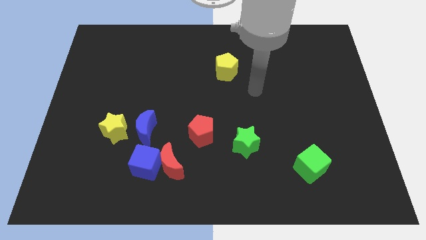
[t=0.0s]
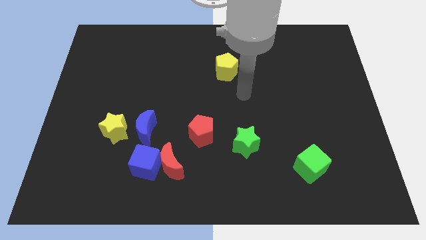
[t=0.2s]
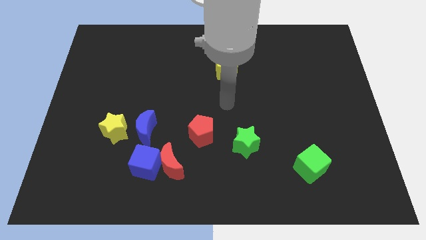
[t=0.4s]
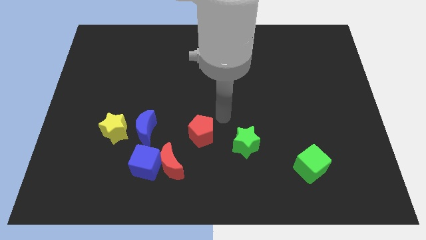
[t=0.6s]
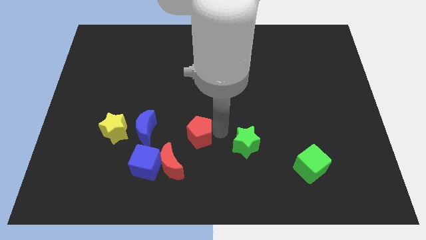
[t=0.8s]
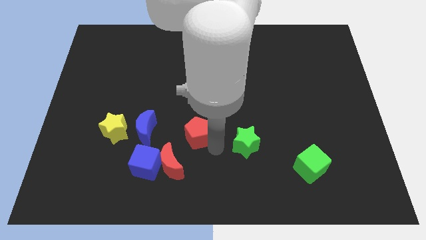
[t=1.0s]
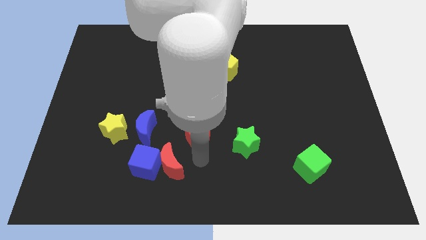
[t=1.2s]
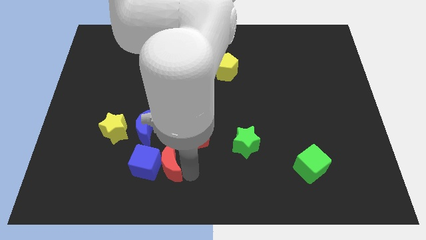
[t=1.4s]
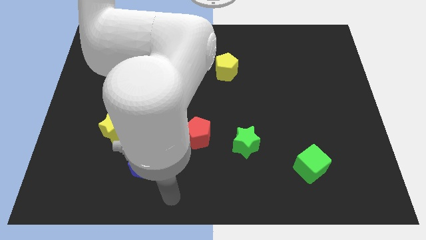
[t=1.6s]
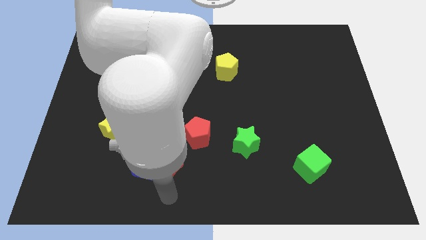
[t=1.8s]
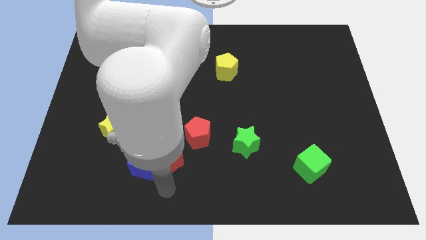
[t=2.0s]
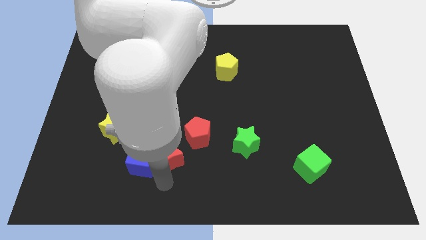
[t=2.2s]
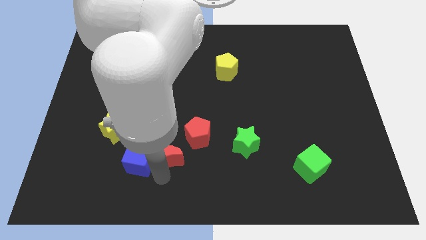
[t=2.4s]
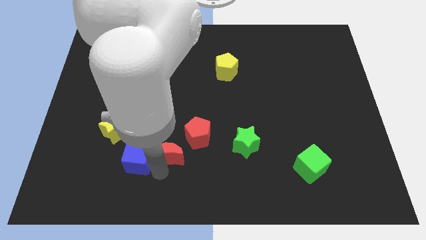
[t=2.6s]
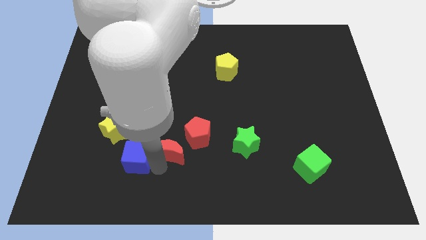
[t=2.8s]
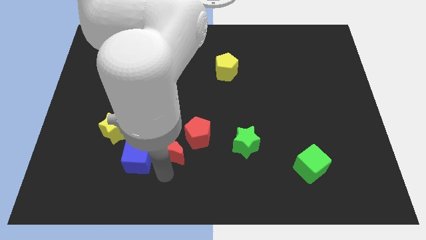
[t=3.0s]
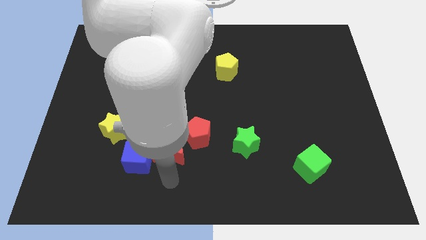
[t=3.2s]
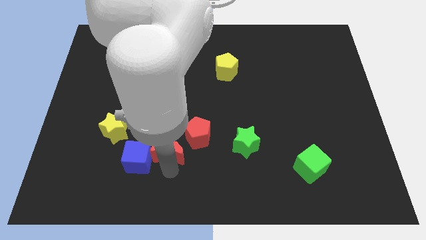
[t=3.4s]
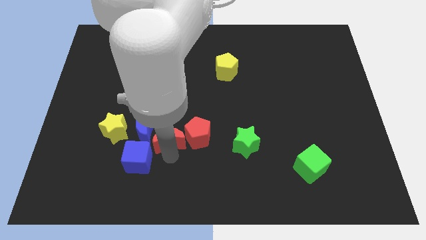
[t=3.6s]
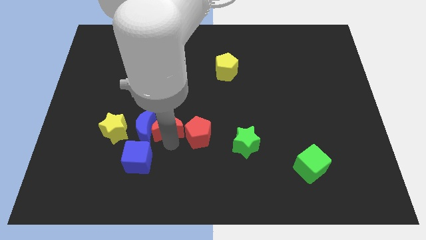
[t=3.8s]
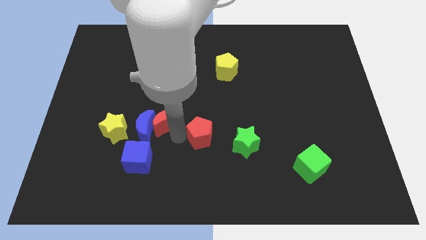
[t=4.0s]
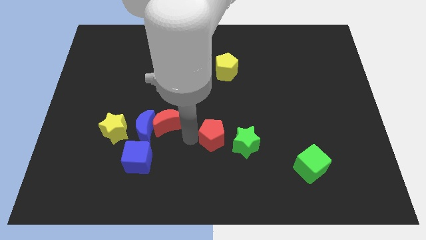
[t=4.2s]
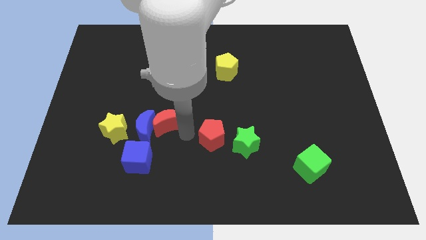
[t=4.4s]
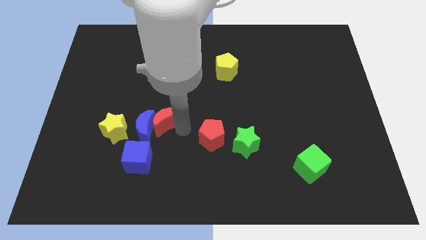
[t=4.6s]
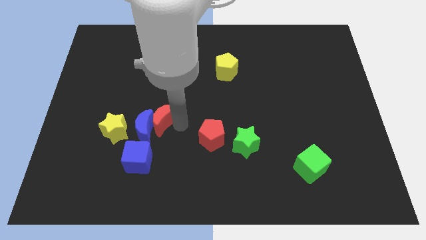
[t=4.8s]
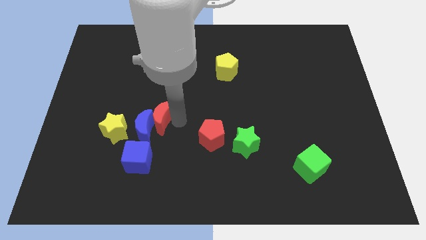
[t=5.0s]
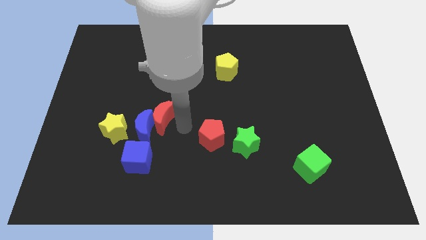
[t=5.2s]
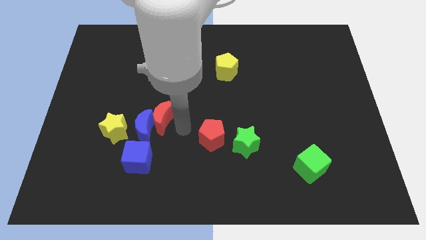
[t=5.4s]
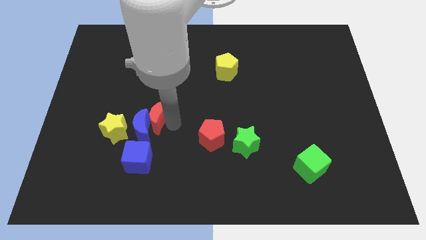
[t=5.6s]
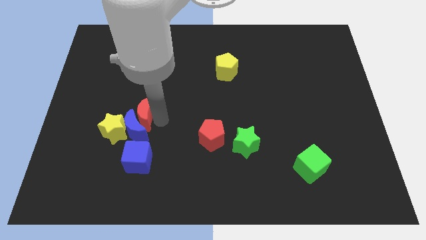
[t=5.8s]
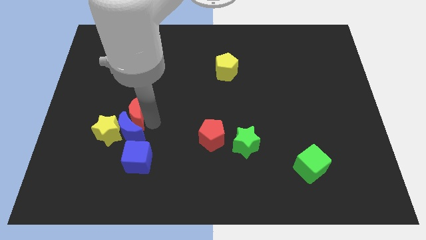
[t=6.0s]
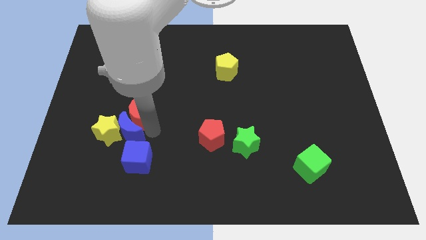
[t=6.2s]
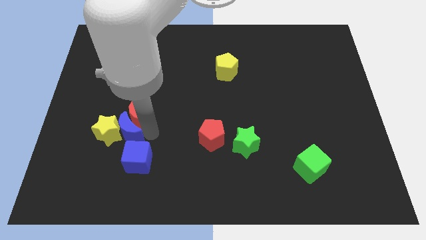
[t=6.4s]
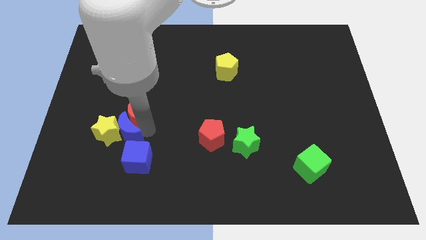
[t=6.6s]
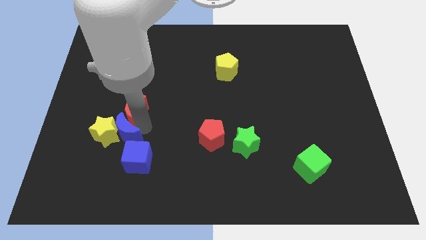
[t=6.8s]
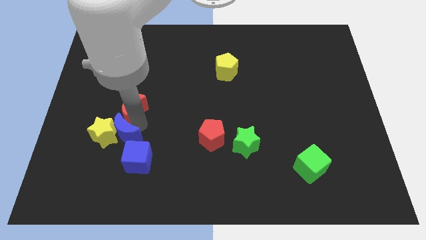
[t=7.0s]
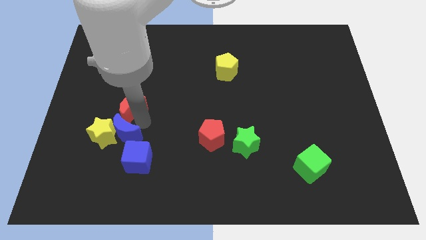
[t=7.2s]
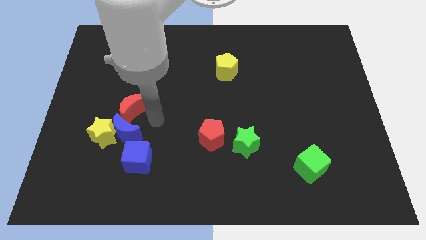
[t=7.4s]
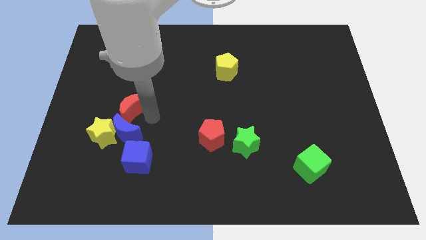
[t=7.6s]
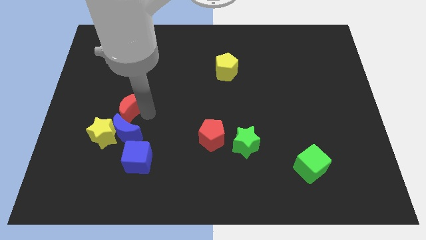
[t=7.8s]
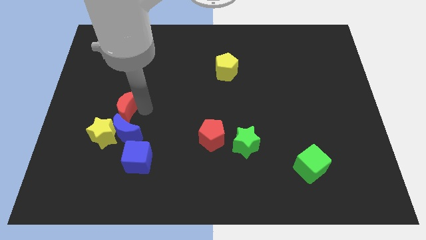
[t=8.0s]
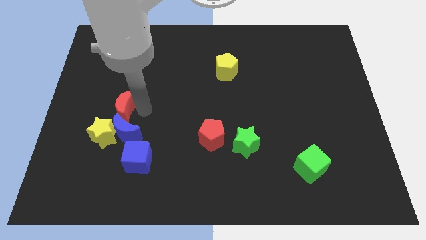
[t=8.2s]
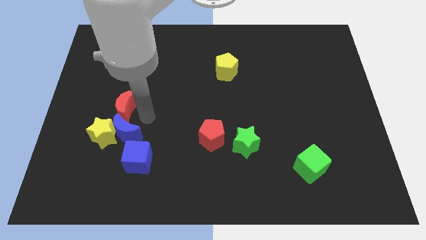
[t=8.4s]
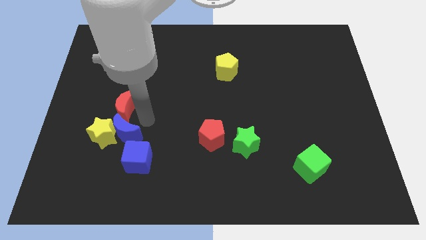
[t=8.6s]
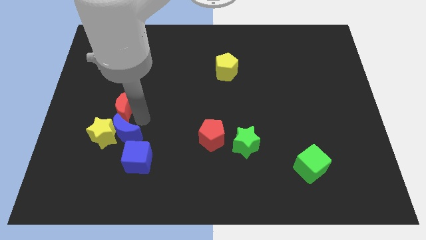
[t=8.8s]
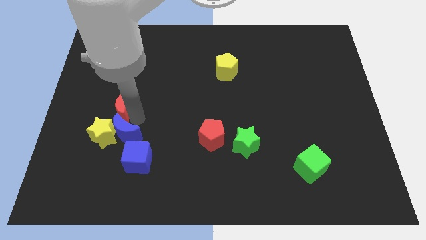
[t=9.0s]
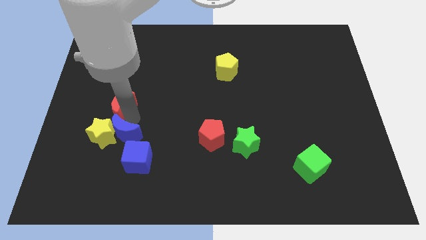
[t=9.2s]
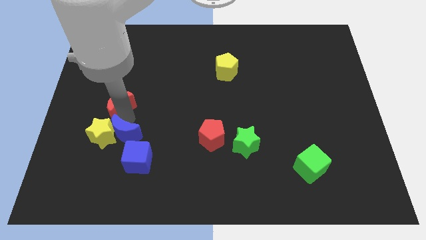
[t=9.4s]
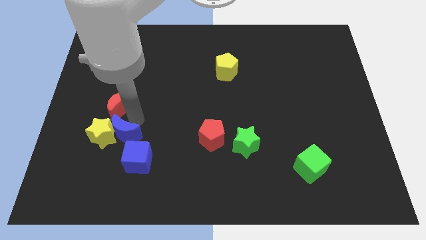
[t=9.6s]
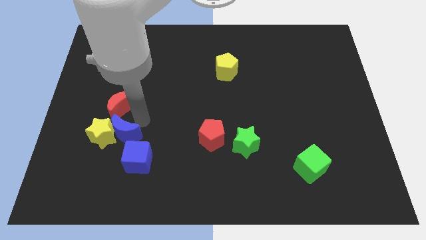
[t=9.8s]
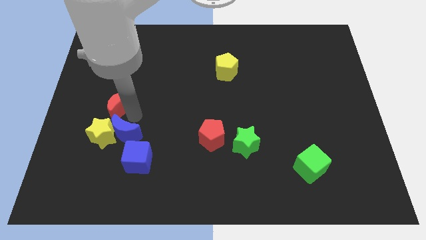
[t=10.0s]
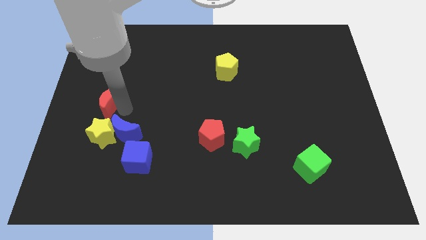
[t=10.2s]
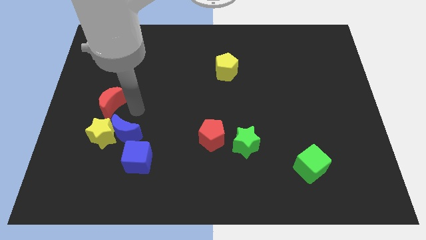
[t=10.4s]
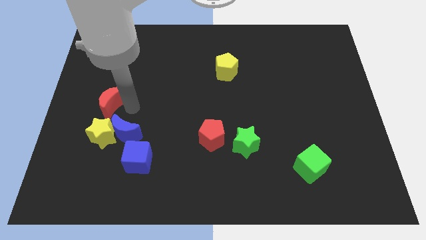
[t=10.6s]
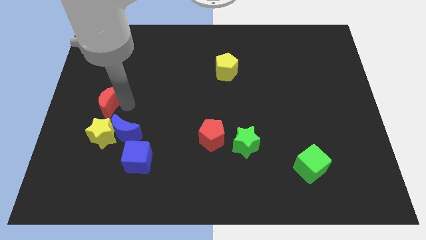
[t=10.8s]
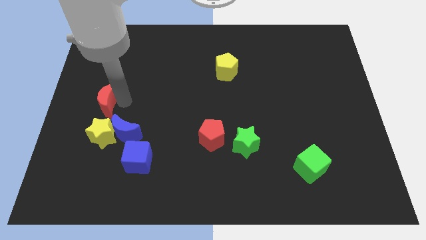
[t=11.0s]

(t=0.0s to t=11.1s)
slide the red moon to the left side of the board

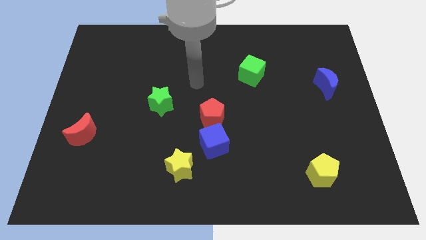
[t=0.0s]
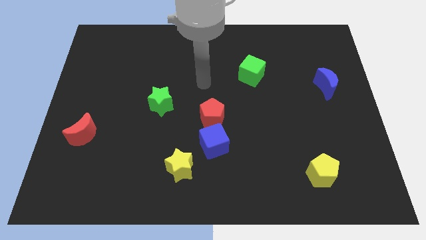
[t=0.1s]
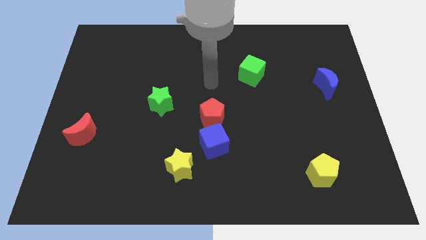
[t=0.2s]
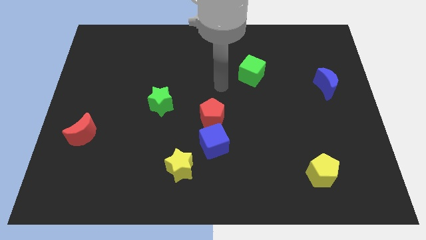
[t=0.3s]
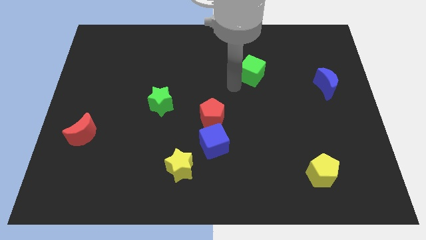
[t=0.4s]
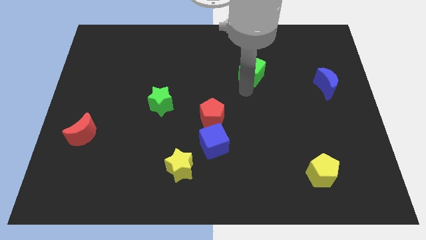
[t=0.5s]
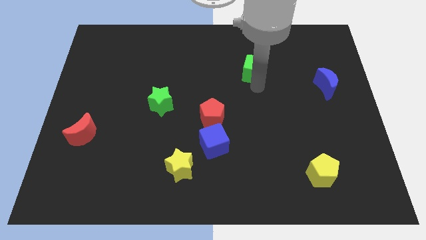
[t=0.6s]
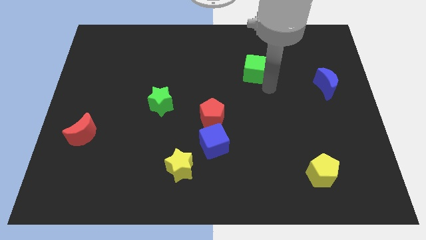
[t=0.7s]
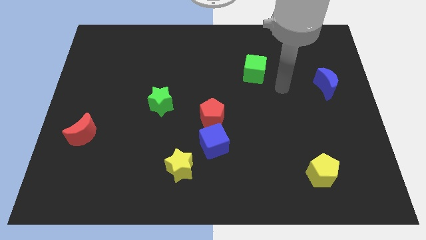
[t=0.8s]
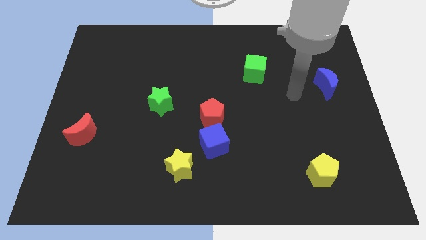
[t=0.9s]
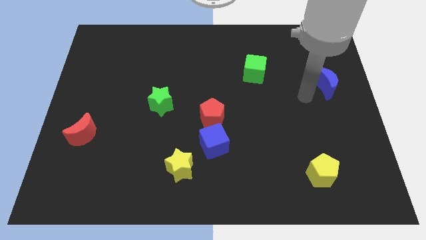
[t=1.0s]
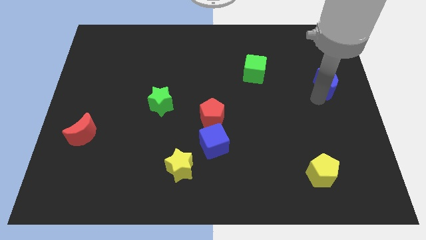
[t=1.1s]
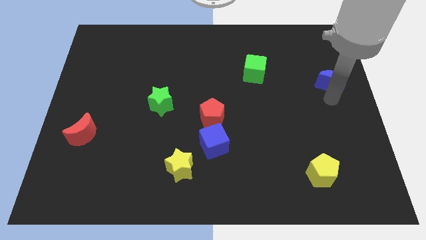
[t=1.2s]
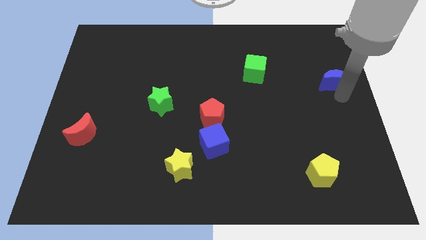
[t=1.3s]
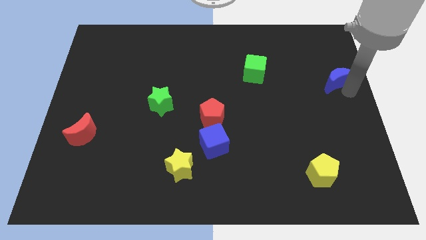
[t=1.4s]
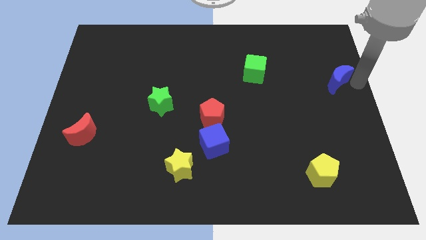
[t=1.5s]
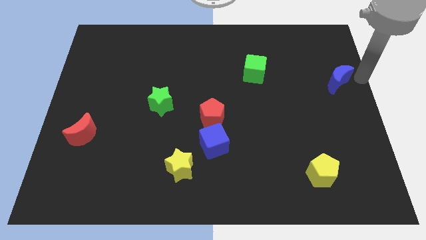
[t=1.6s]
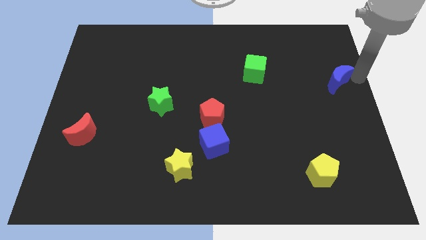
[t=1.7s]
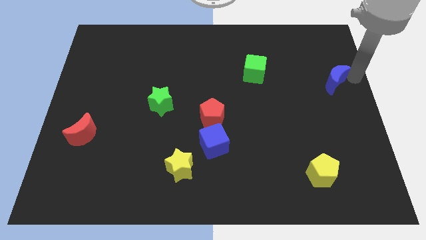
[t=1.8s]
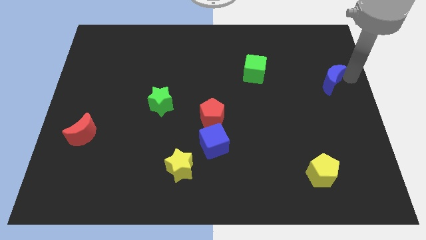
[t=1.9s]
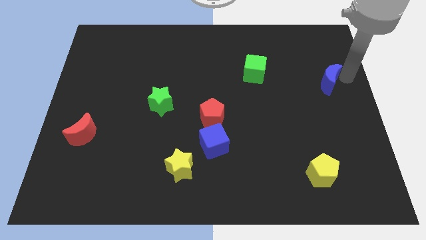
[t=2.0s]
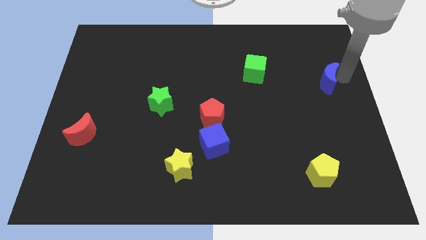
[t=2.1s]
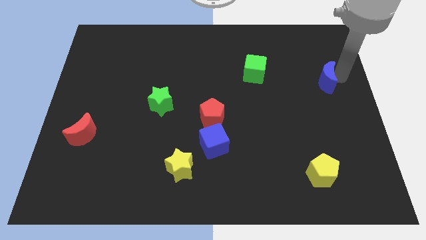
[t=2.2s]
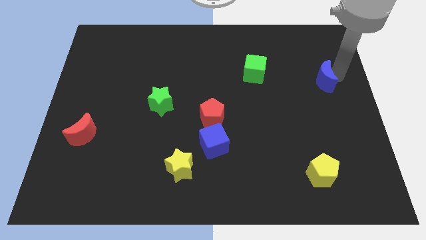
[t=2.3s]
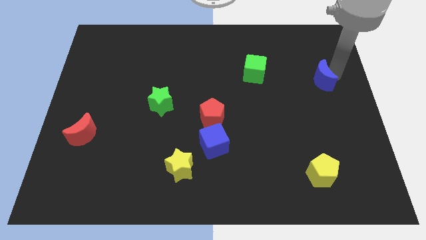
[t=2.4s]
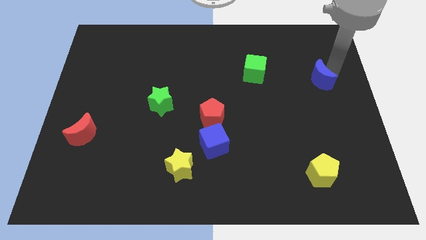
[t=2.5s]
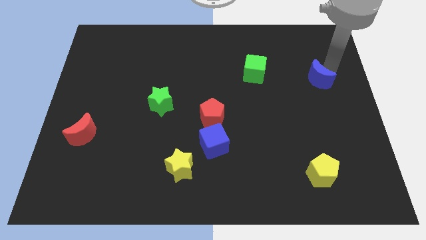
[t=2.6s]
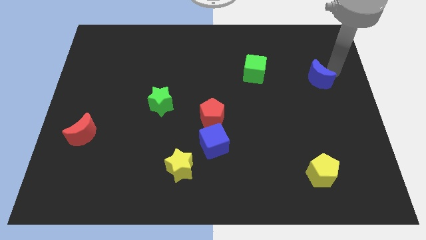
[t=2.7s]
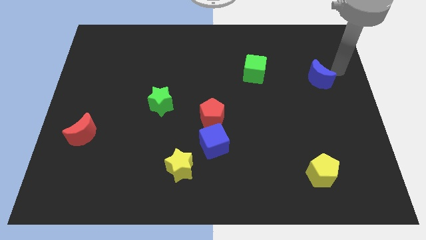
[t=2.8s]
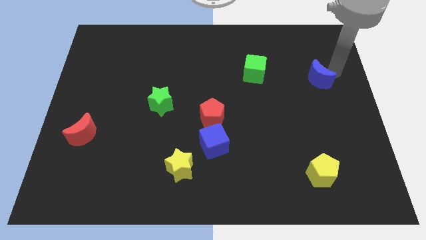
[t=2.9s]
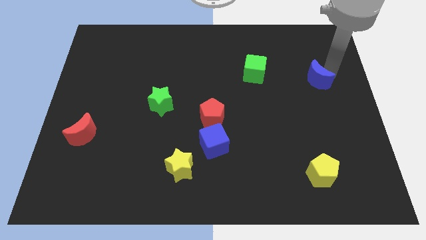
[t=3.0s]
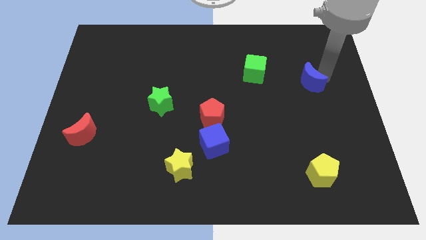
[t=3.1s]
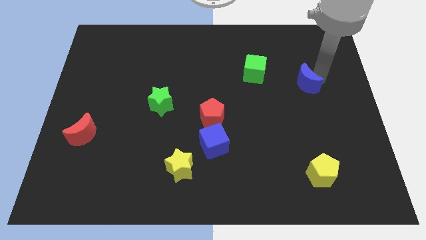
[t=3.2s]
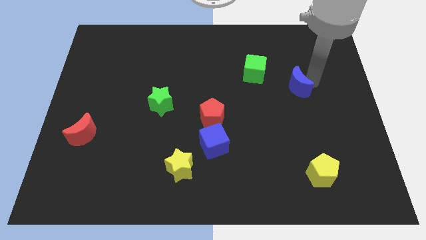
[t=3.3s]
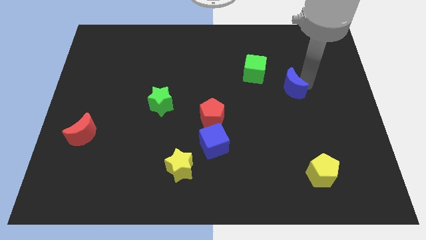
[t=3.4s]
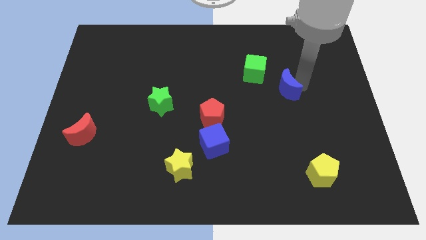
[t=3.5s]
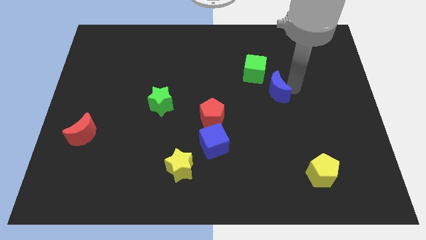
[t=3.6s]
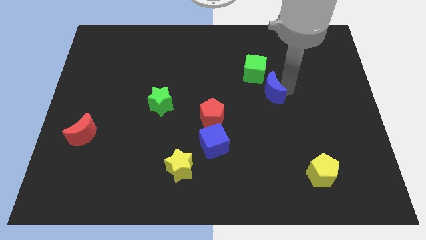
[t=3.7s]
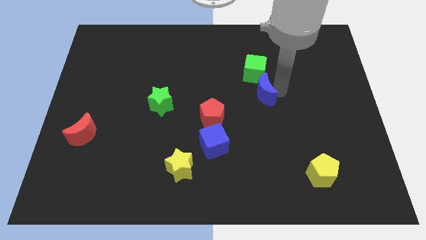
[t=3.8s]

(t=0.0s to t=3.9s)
move the blue moon to the center
